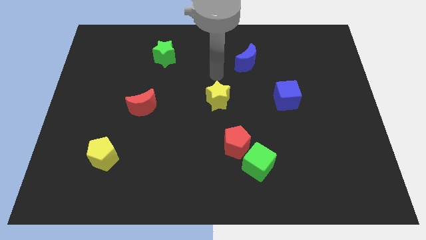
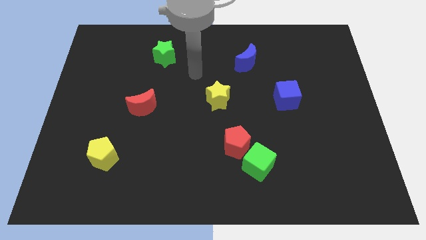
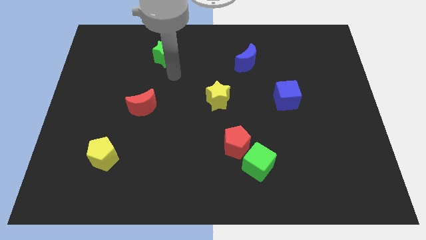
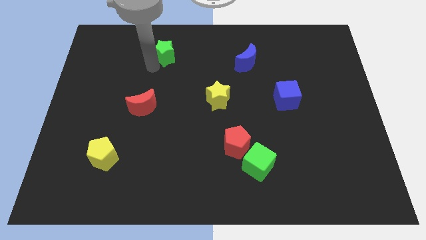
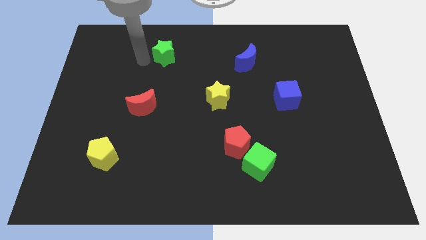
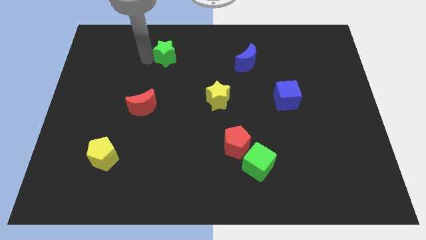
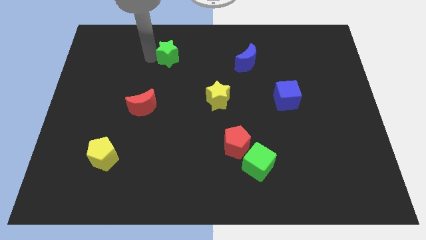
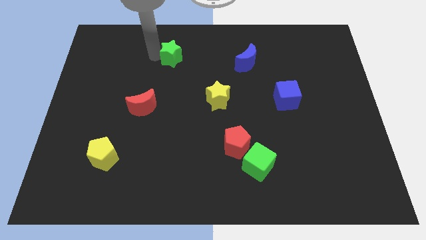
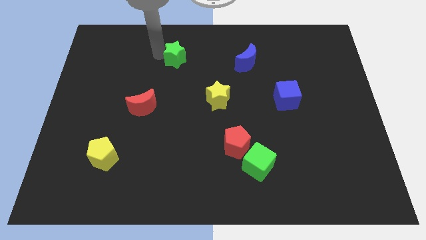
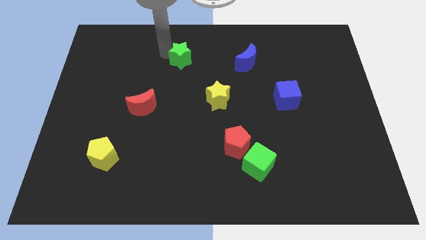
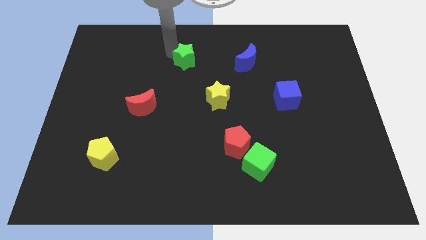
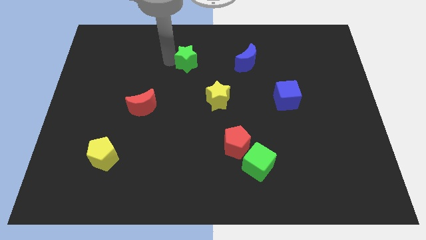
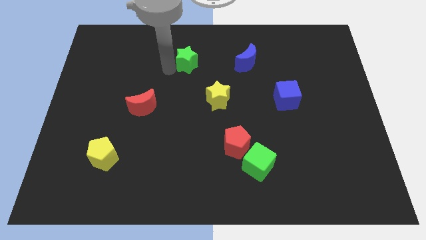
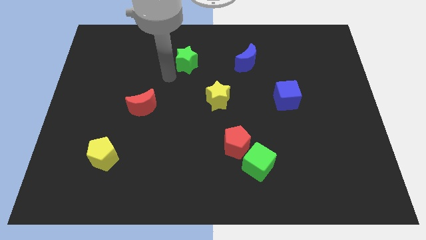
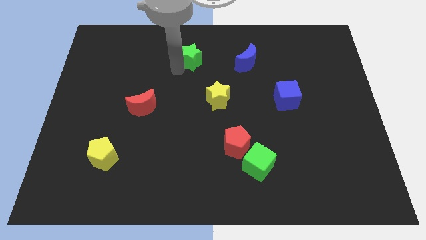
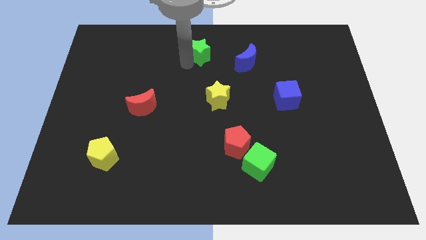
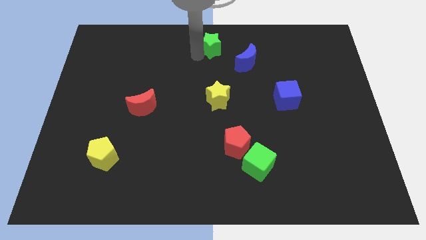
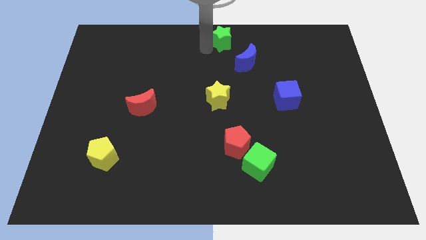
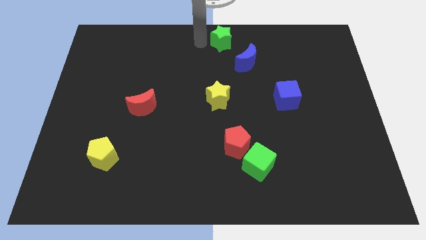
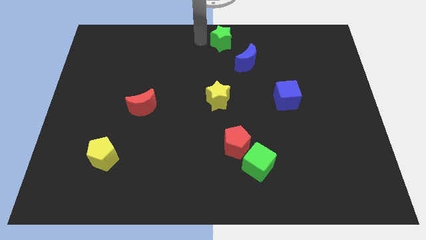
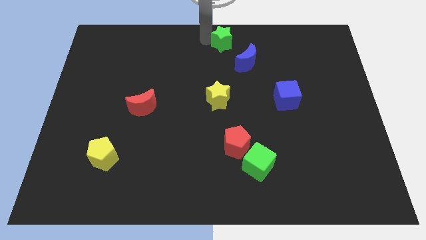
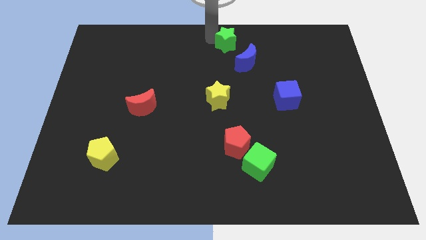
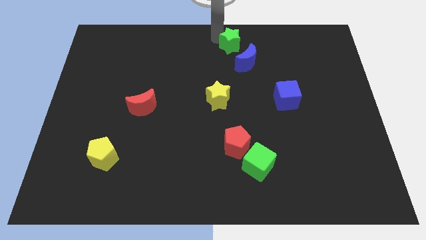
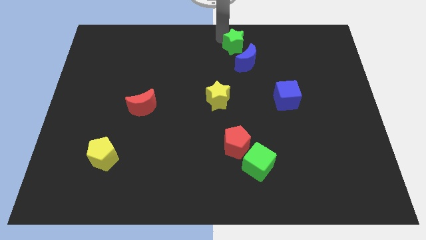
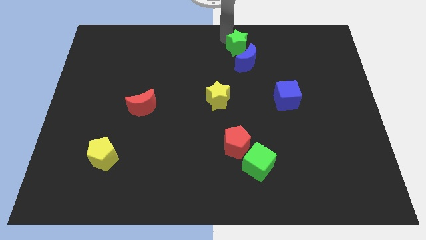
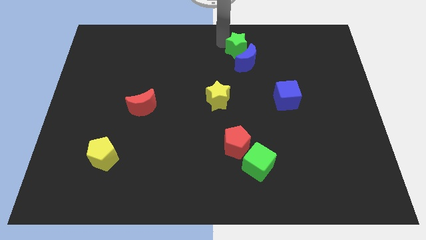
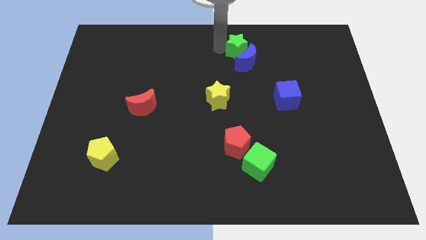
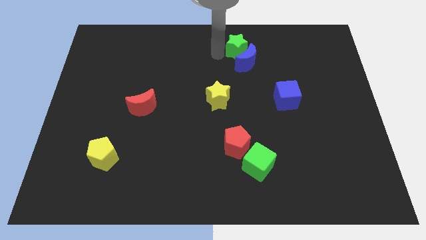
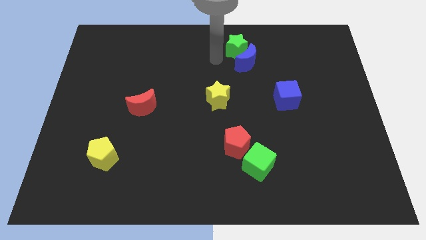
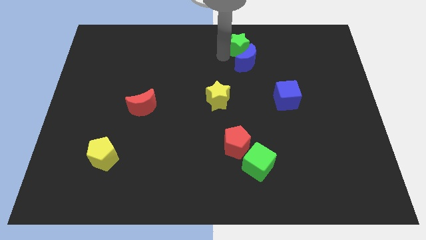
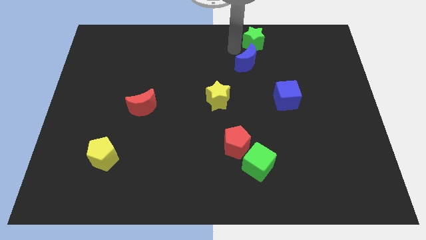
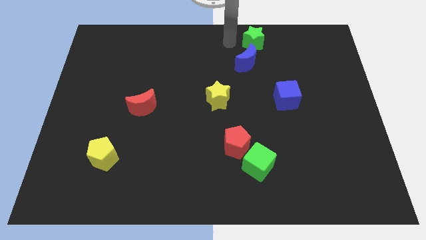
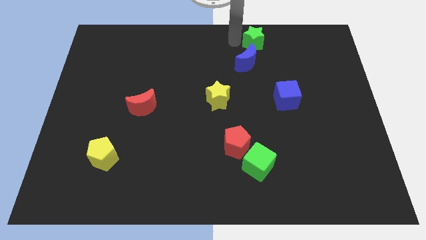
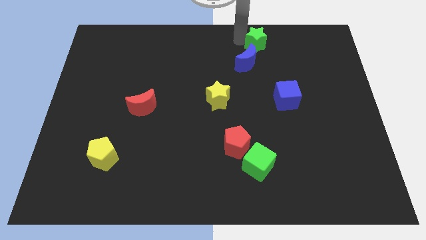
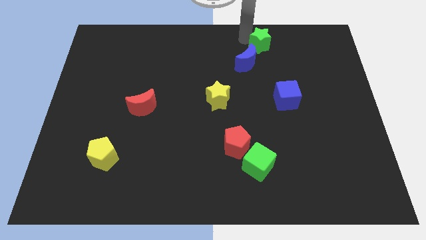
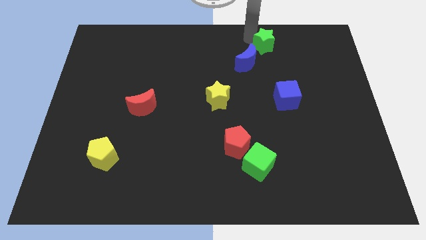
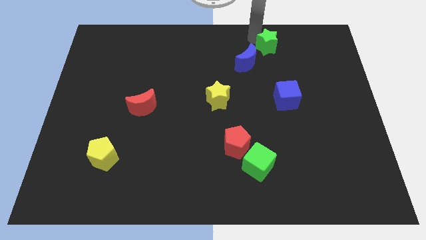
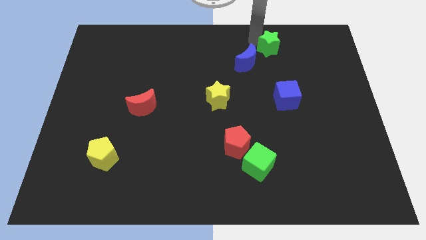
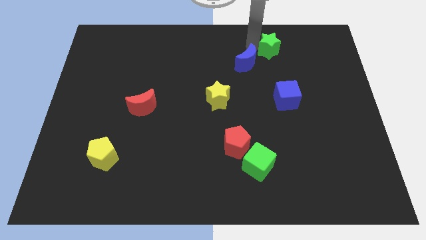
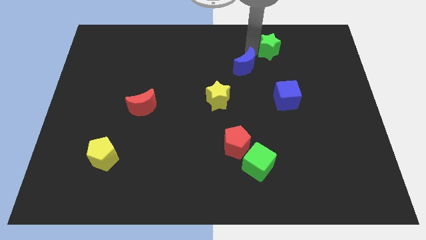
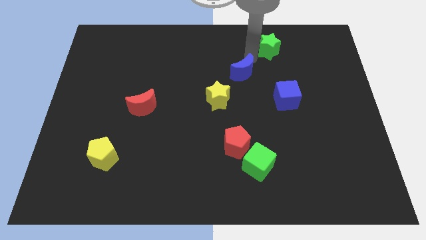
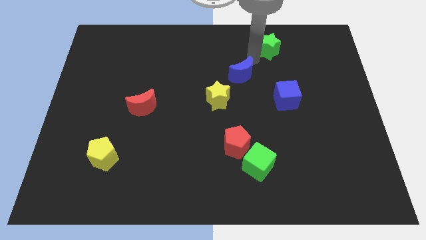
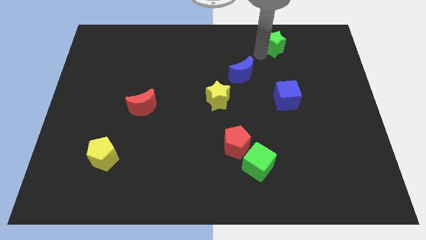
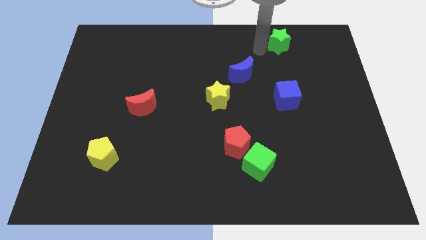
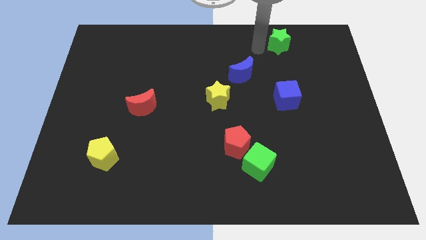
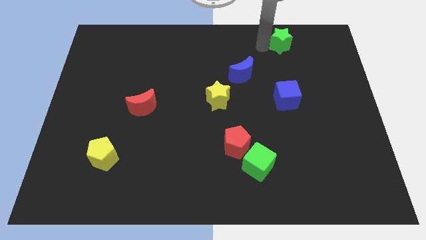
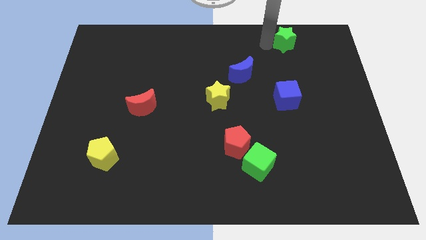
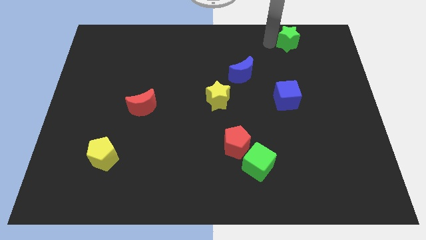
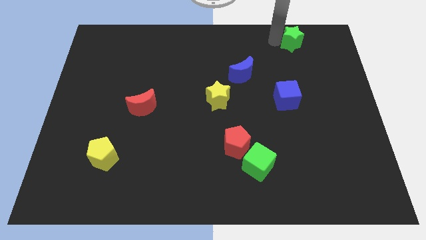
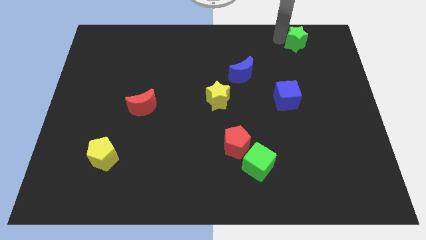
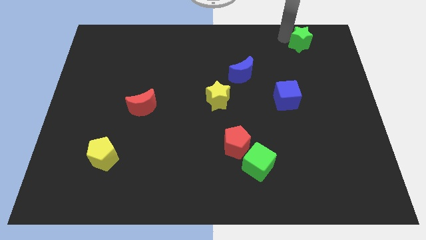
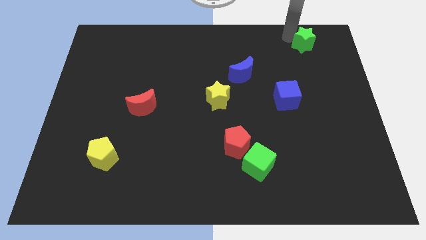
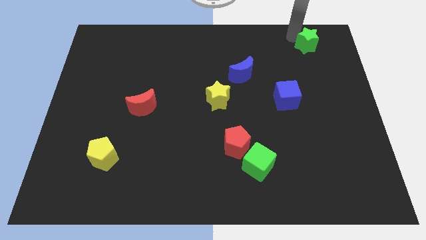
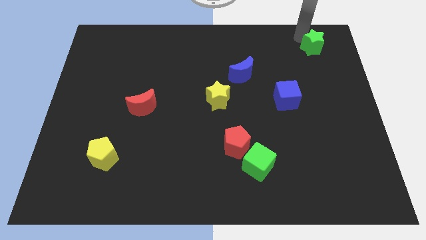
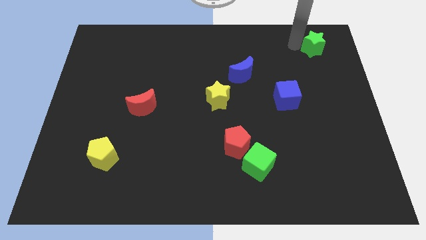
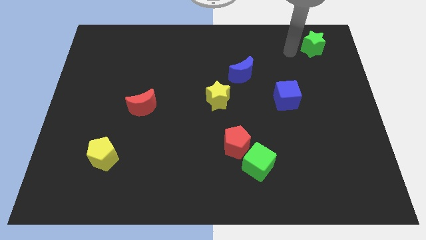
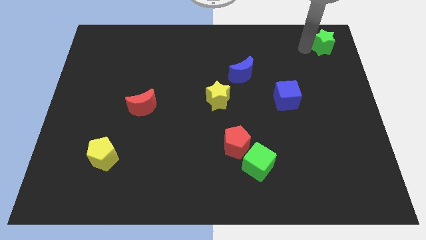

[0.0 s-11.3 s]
move the green star to the upper right corner
